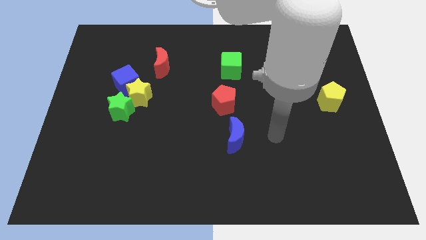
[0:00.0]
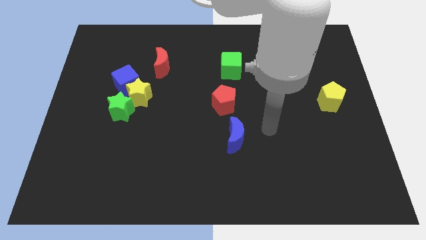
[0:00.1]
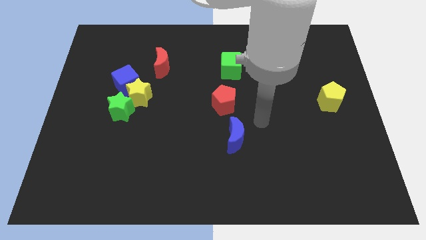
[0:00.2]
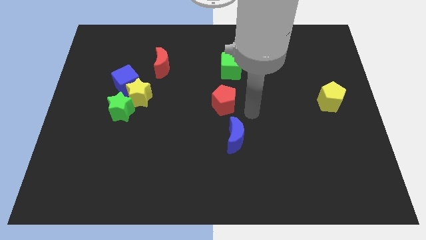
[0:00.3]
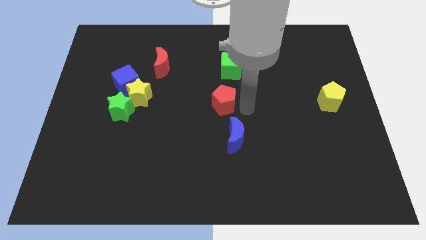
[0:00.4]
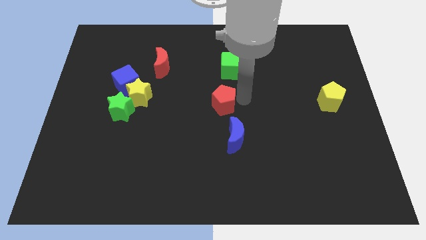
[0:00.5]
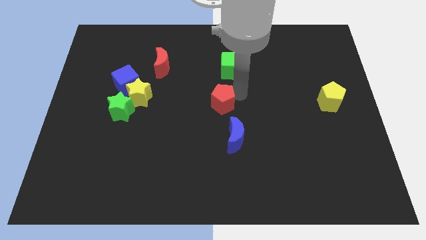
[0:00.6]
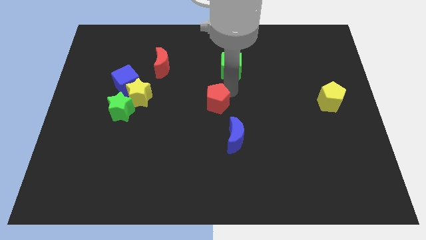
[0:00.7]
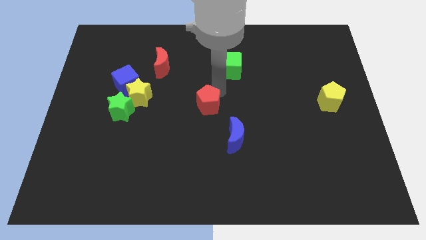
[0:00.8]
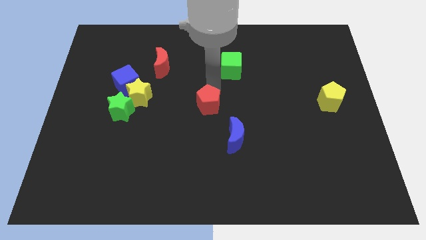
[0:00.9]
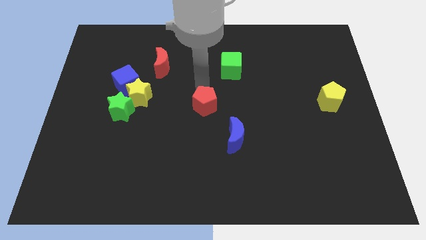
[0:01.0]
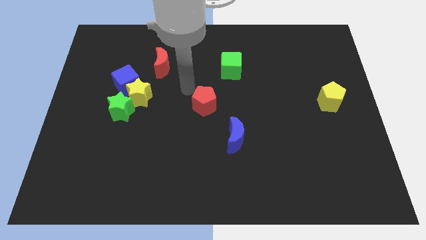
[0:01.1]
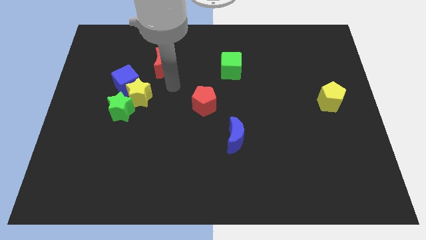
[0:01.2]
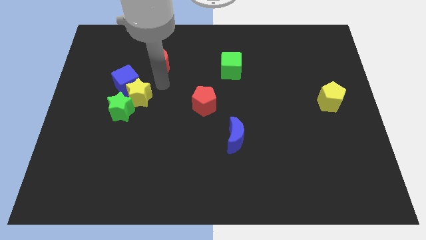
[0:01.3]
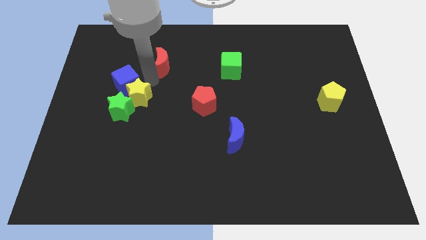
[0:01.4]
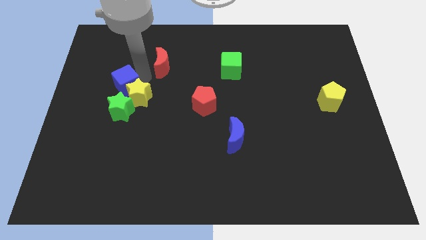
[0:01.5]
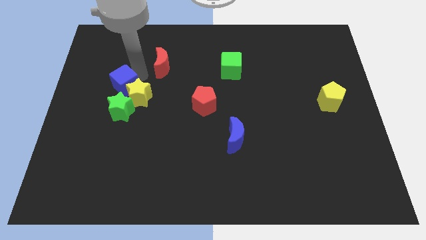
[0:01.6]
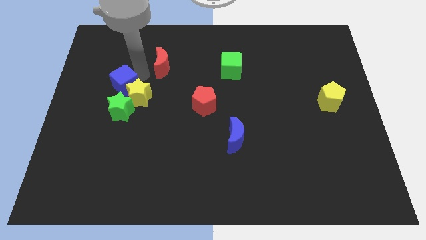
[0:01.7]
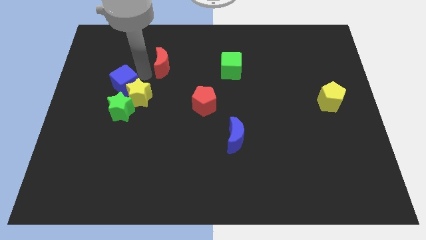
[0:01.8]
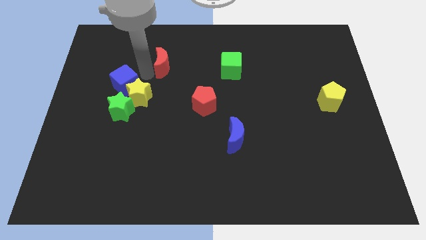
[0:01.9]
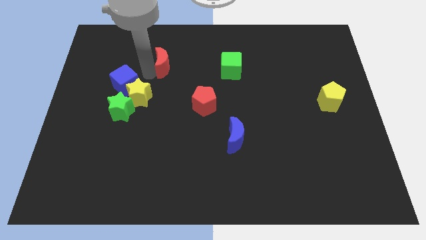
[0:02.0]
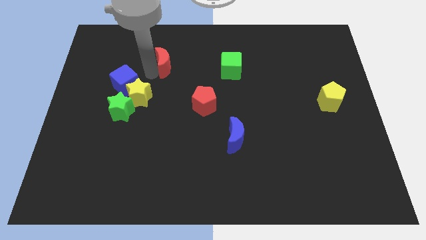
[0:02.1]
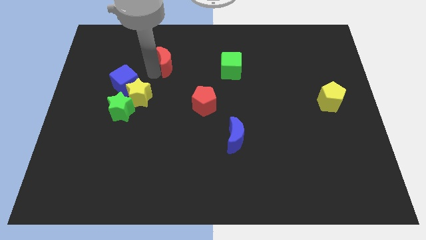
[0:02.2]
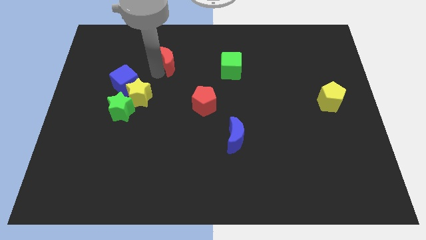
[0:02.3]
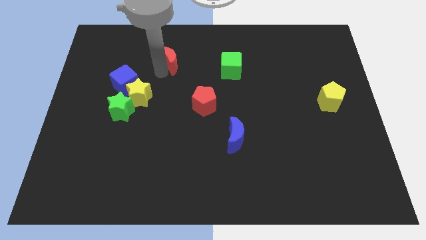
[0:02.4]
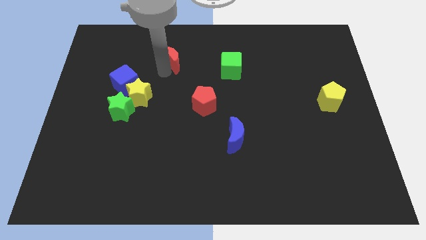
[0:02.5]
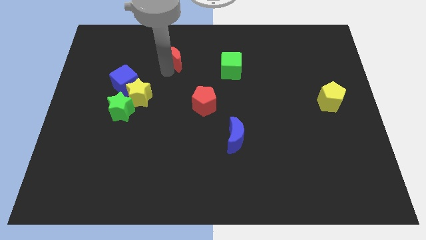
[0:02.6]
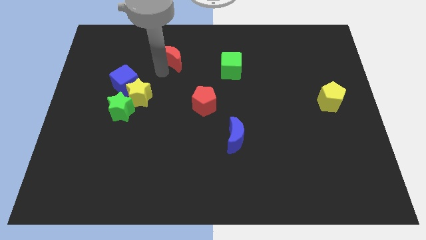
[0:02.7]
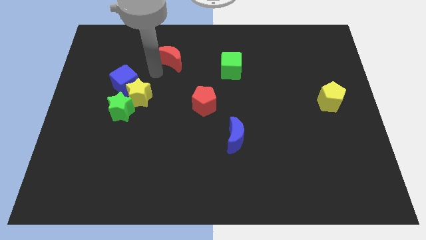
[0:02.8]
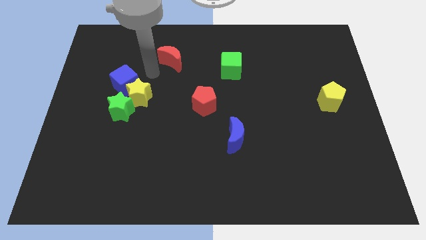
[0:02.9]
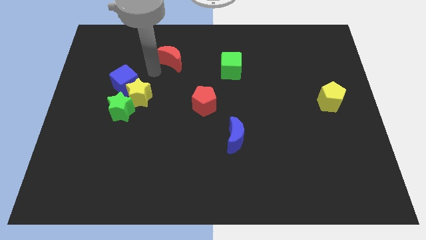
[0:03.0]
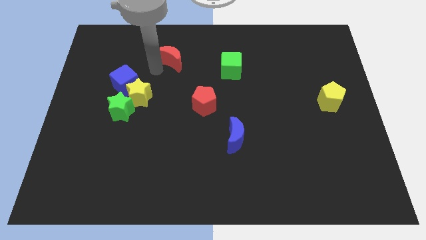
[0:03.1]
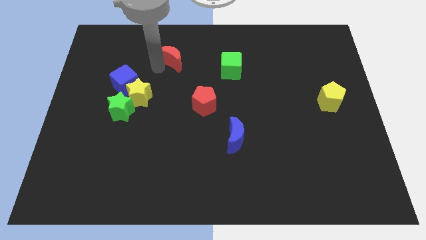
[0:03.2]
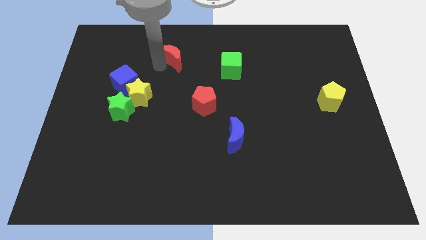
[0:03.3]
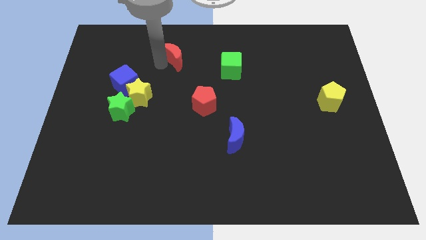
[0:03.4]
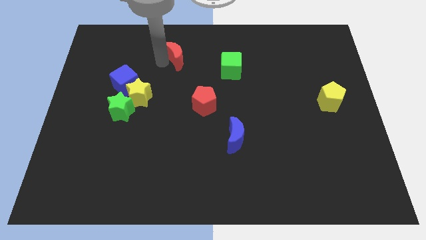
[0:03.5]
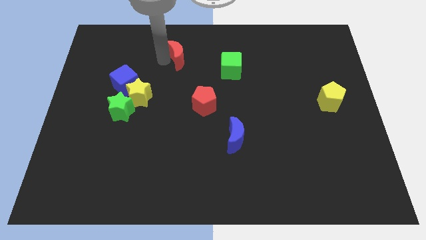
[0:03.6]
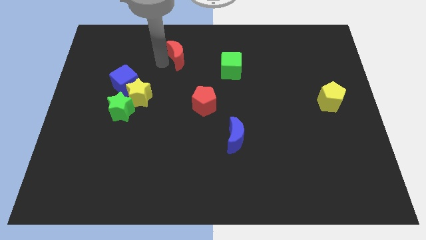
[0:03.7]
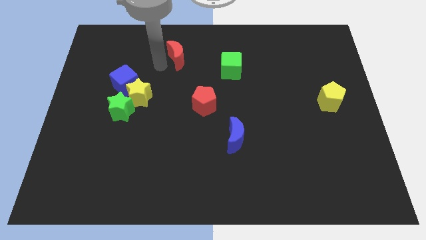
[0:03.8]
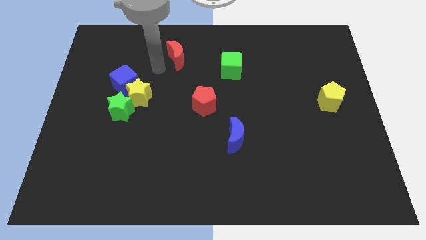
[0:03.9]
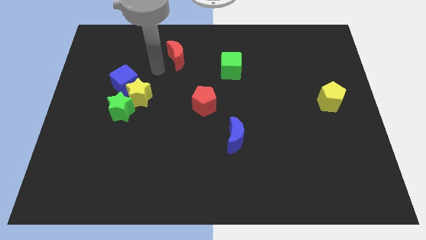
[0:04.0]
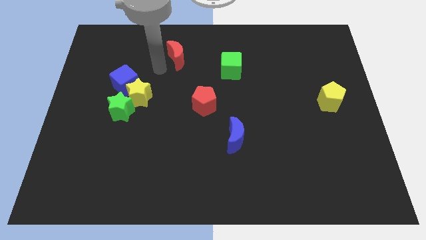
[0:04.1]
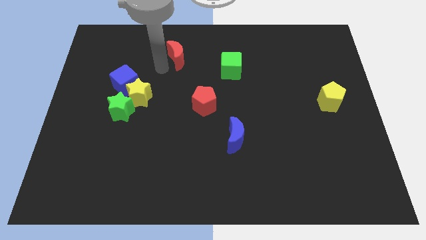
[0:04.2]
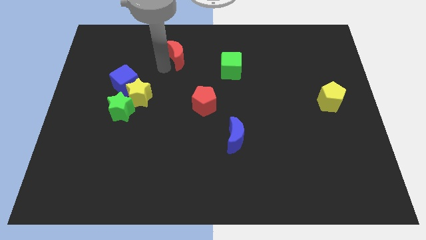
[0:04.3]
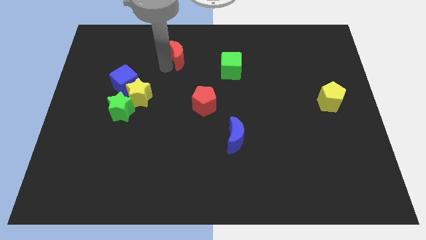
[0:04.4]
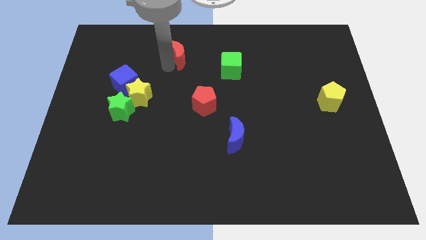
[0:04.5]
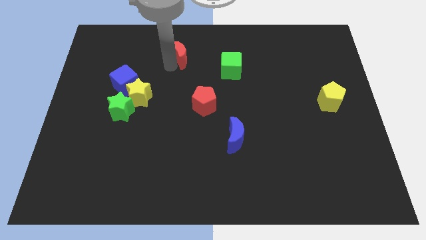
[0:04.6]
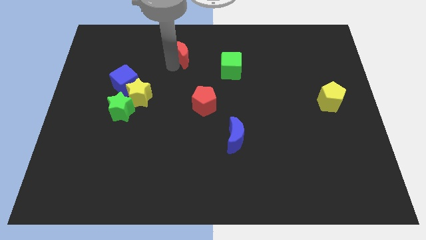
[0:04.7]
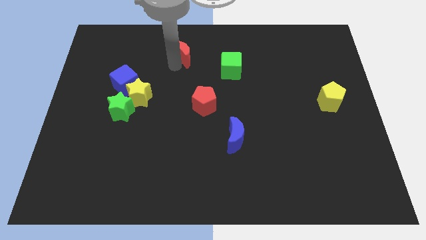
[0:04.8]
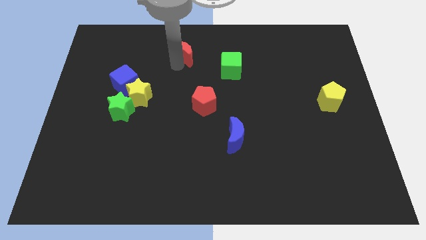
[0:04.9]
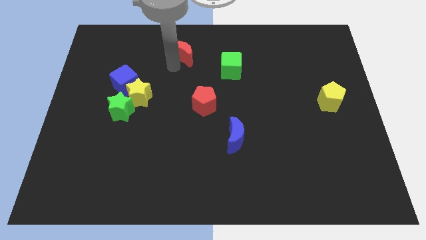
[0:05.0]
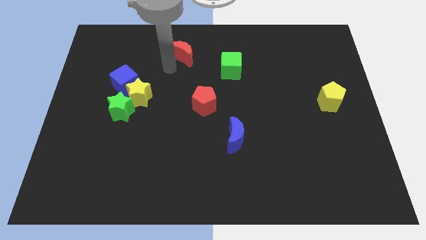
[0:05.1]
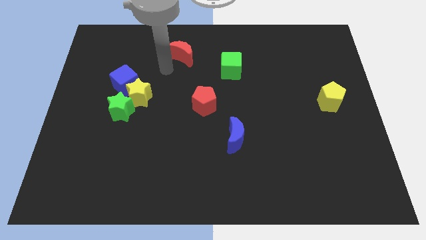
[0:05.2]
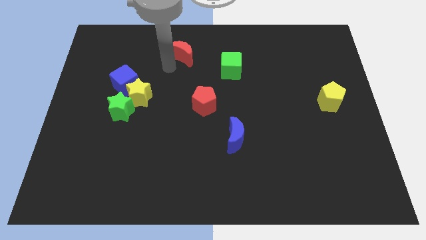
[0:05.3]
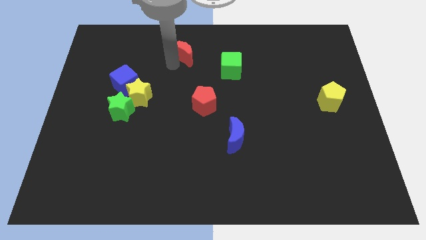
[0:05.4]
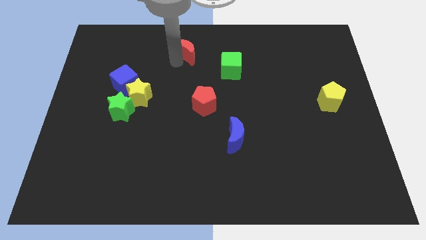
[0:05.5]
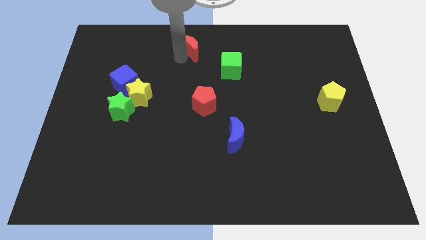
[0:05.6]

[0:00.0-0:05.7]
slide the red moon to the top side

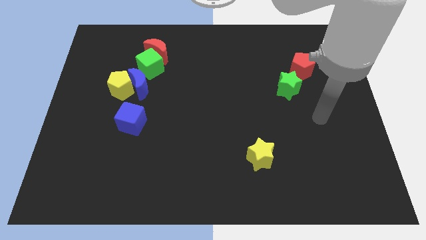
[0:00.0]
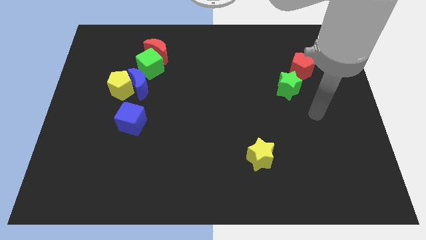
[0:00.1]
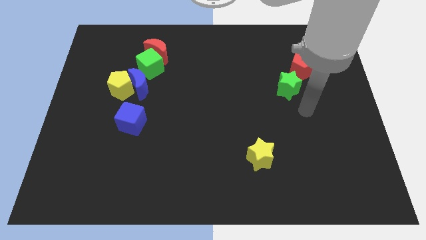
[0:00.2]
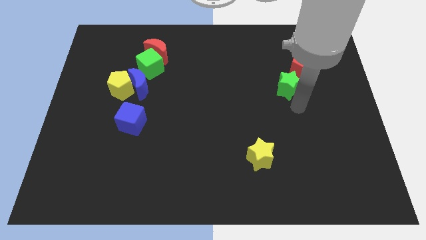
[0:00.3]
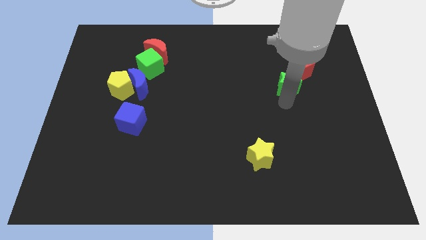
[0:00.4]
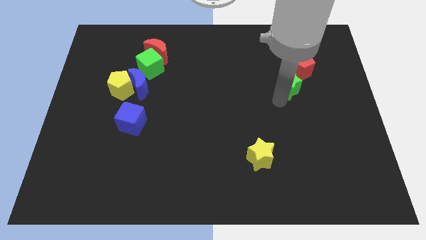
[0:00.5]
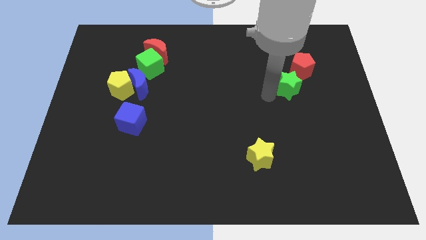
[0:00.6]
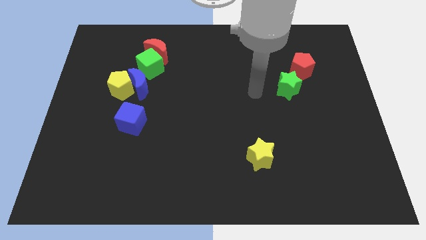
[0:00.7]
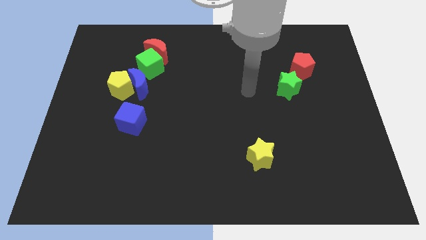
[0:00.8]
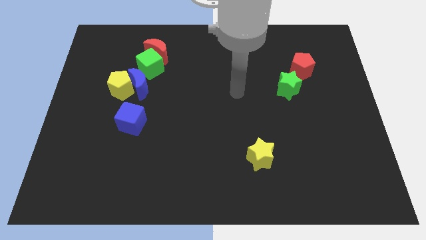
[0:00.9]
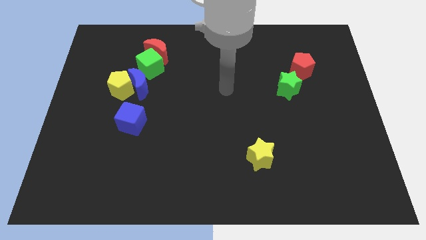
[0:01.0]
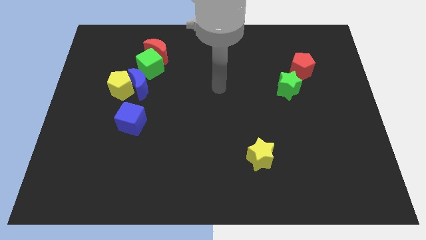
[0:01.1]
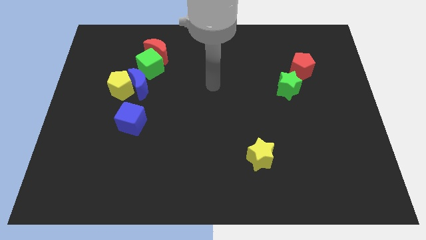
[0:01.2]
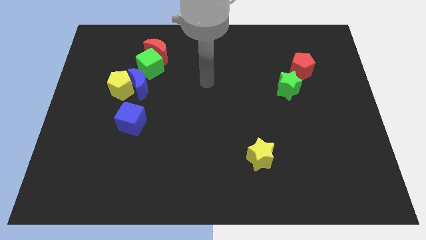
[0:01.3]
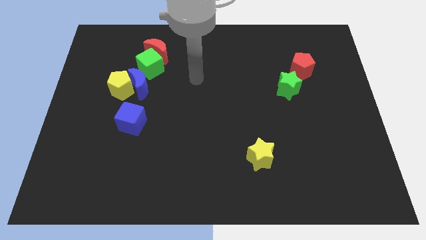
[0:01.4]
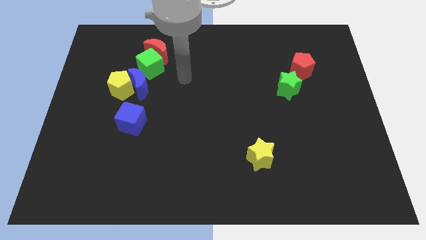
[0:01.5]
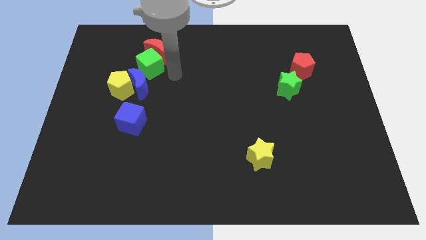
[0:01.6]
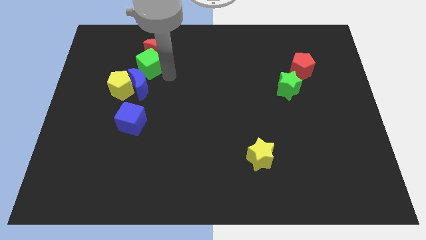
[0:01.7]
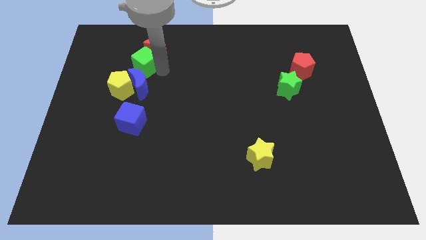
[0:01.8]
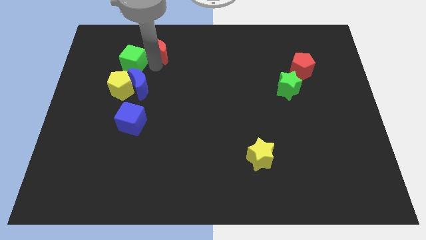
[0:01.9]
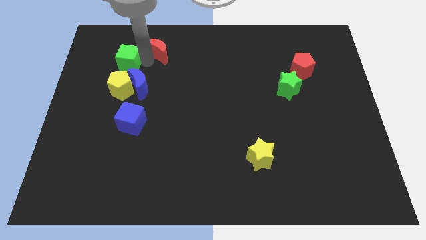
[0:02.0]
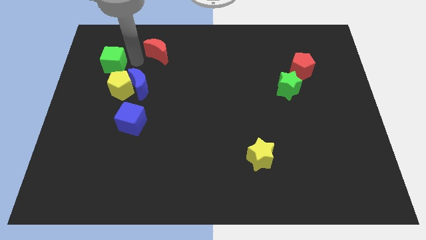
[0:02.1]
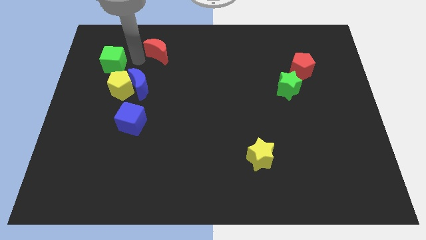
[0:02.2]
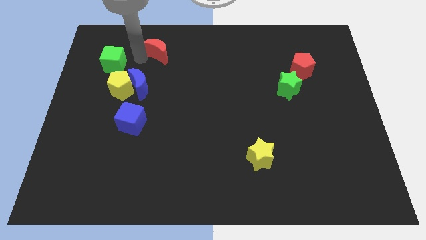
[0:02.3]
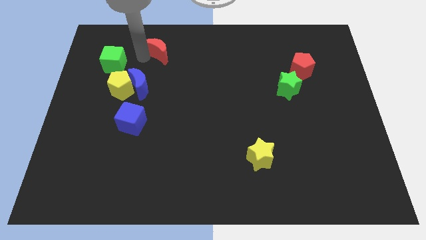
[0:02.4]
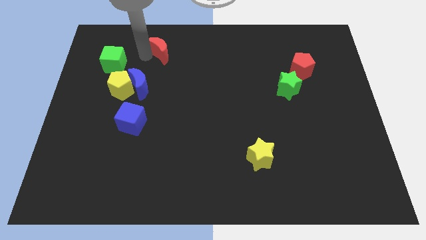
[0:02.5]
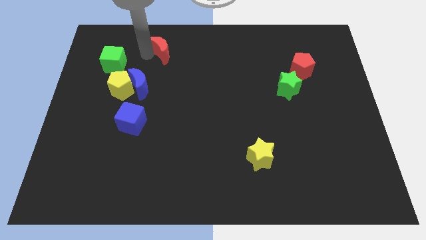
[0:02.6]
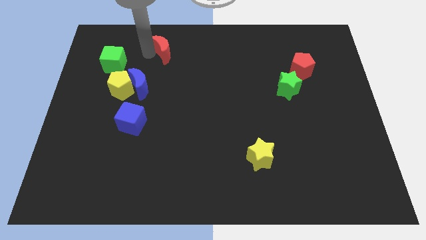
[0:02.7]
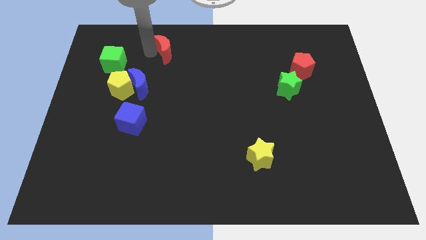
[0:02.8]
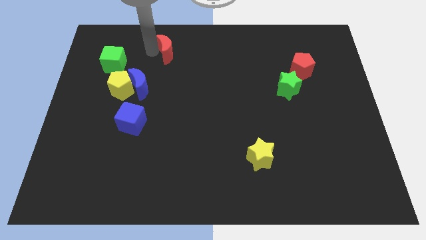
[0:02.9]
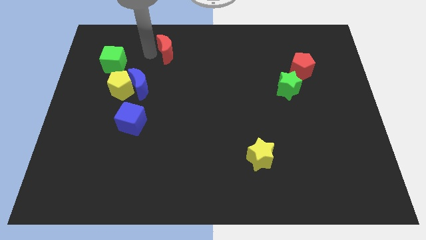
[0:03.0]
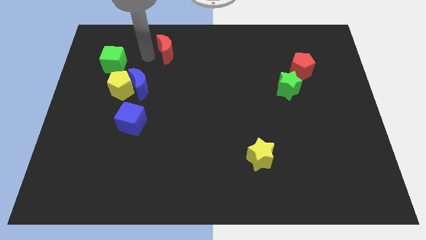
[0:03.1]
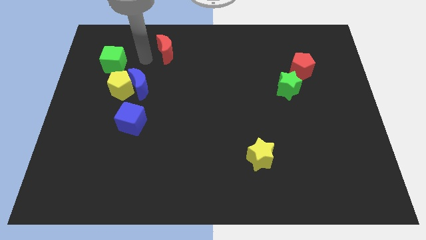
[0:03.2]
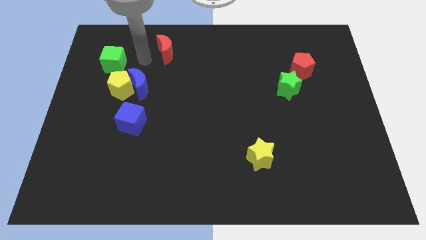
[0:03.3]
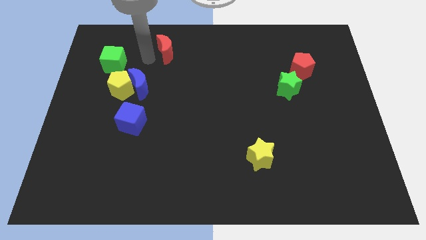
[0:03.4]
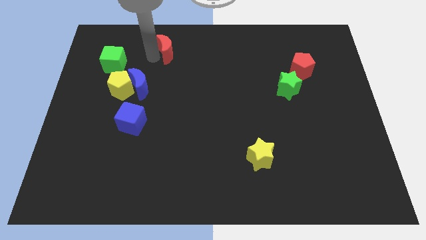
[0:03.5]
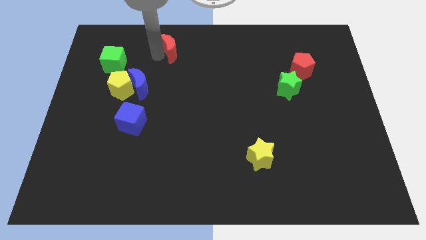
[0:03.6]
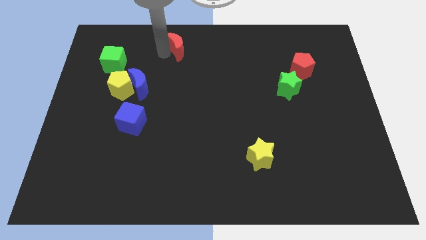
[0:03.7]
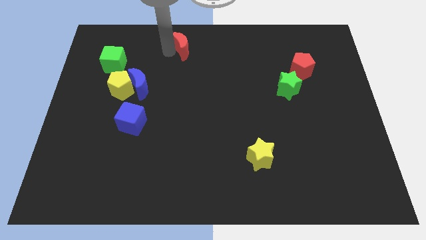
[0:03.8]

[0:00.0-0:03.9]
push the red moon to the towards your base
